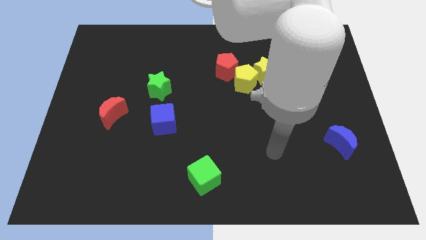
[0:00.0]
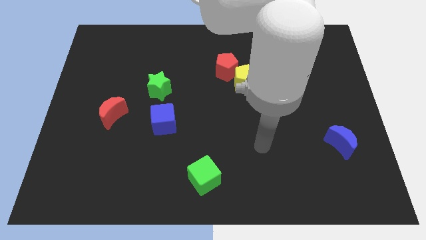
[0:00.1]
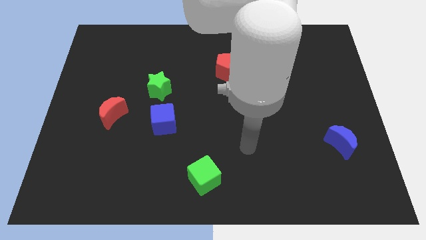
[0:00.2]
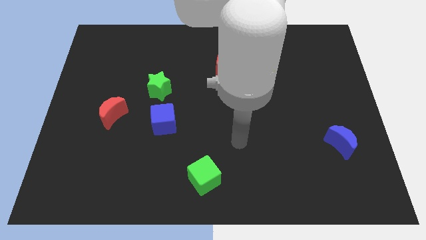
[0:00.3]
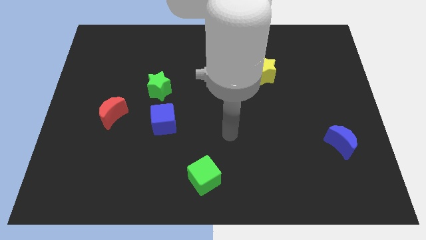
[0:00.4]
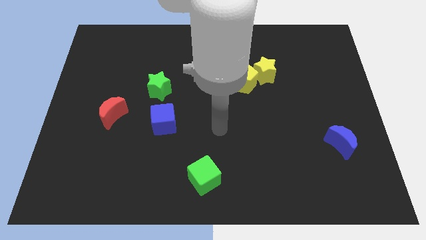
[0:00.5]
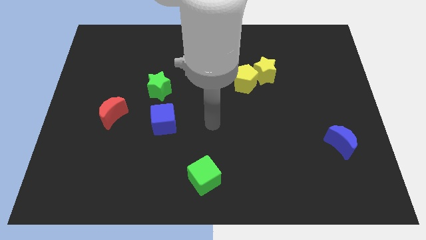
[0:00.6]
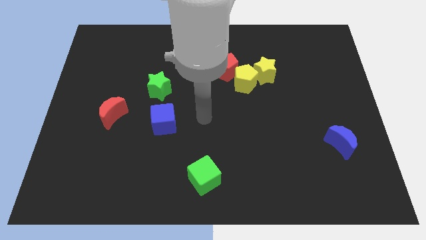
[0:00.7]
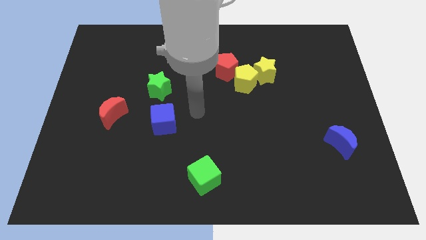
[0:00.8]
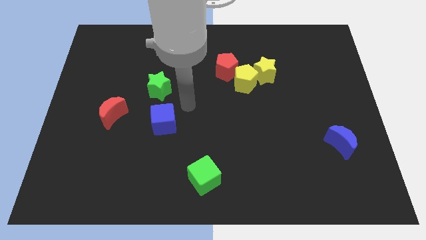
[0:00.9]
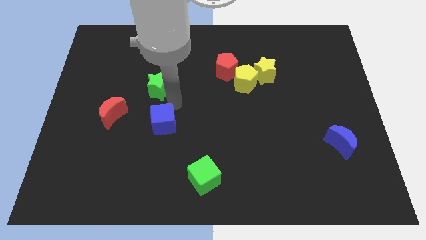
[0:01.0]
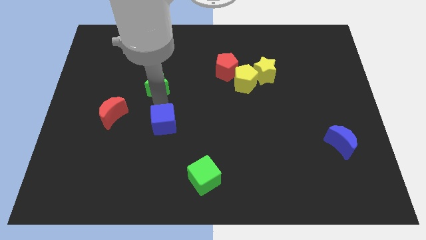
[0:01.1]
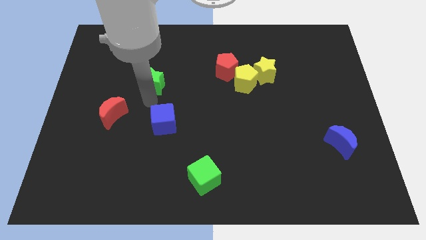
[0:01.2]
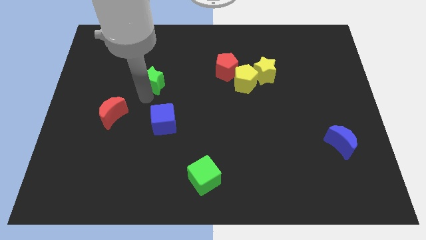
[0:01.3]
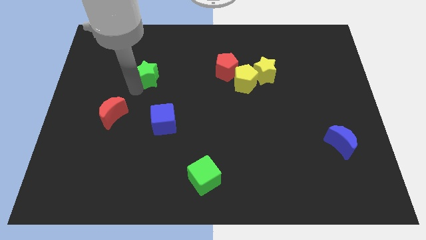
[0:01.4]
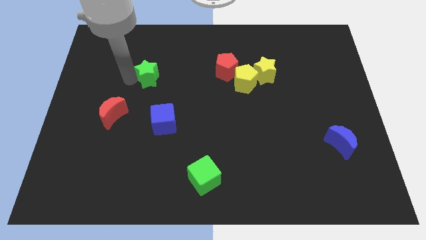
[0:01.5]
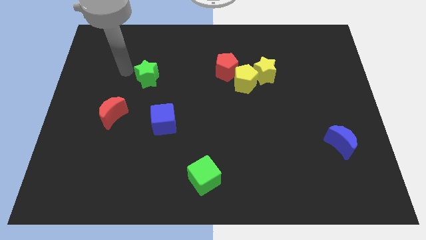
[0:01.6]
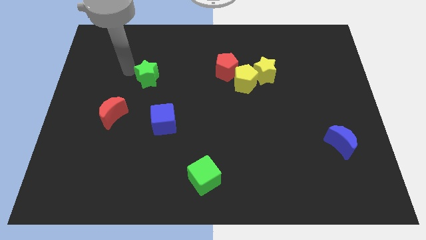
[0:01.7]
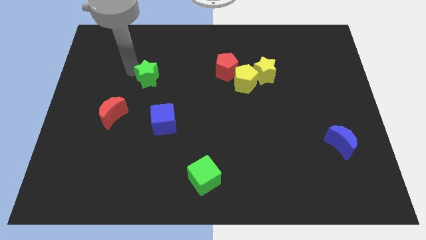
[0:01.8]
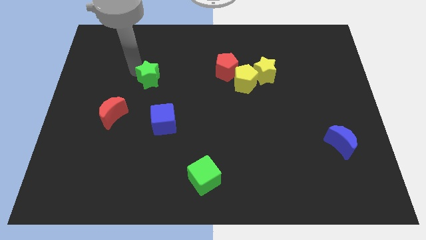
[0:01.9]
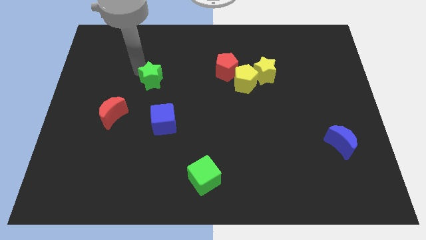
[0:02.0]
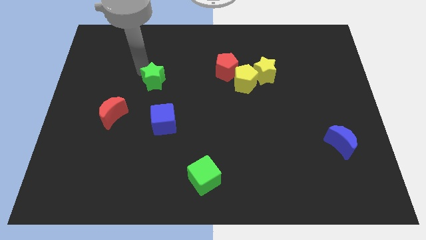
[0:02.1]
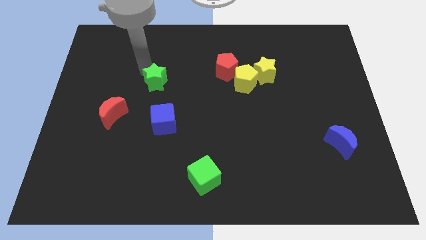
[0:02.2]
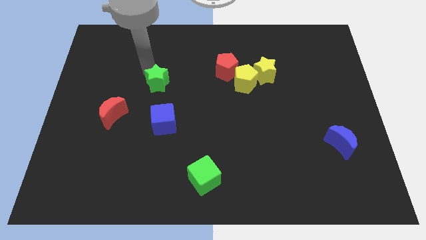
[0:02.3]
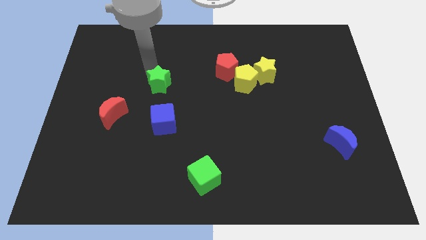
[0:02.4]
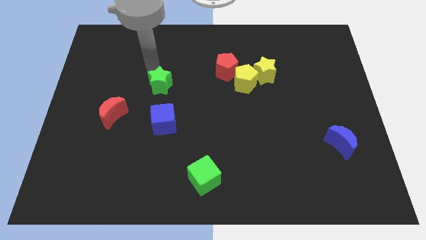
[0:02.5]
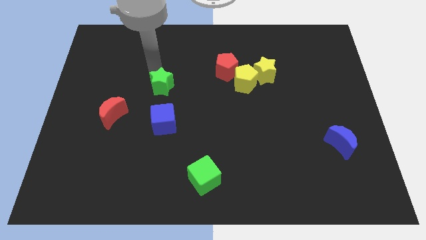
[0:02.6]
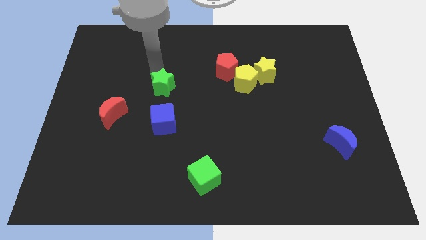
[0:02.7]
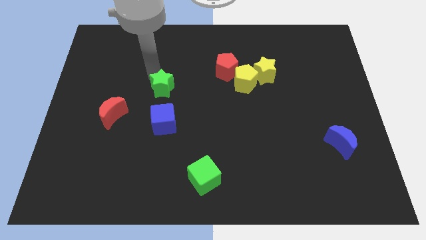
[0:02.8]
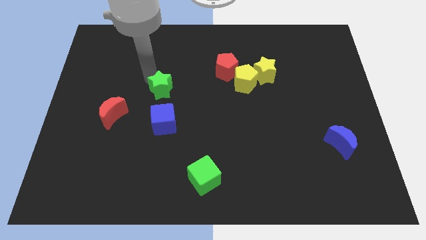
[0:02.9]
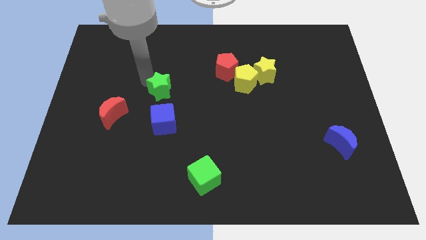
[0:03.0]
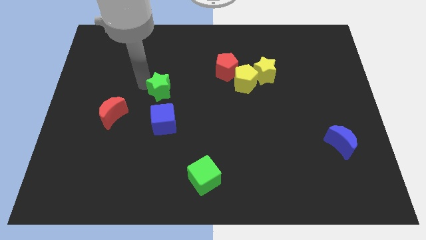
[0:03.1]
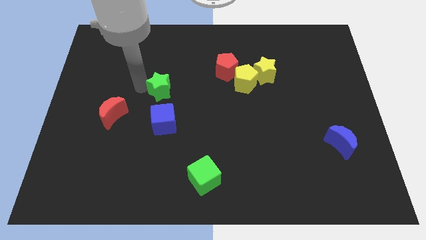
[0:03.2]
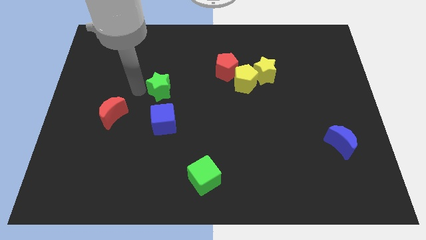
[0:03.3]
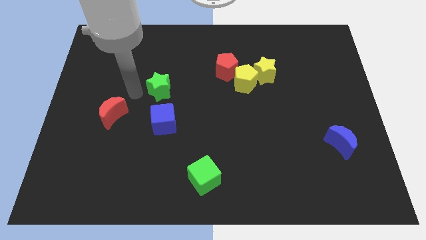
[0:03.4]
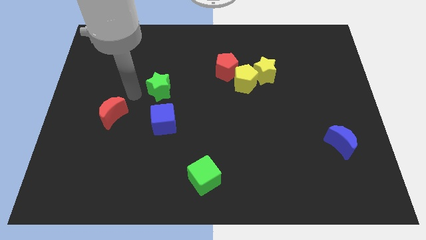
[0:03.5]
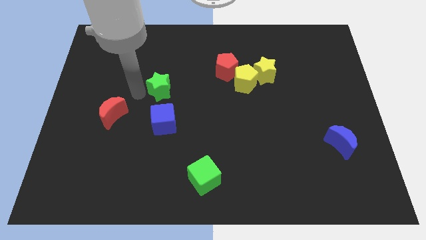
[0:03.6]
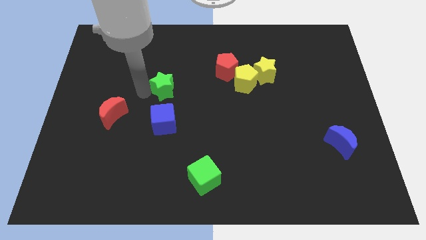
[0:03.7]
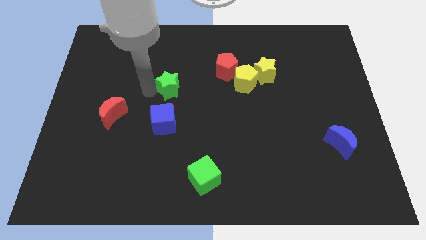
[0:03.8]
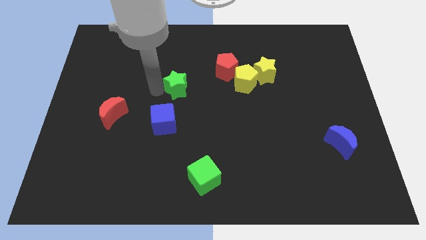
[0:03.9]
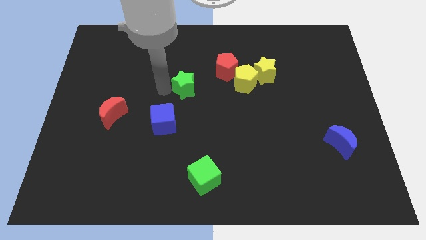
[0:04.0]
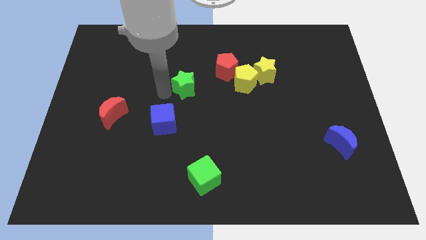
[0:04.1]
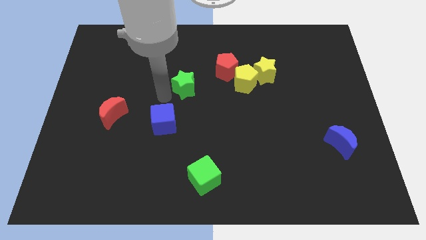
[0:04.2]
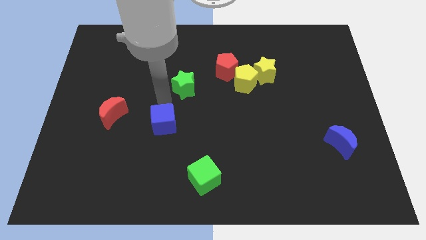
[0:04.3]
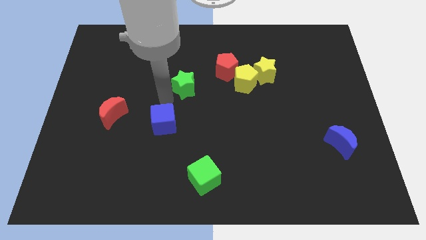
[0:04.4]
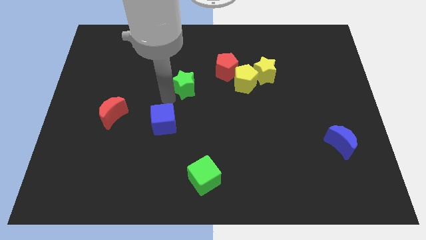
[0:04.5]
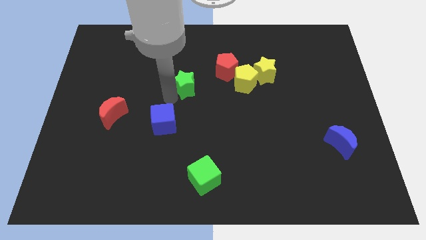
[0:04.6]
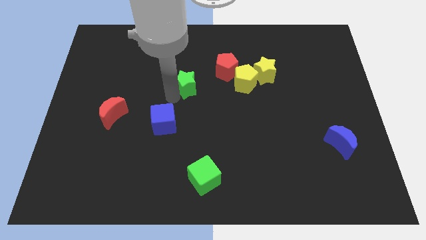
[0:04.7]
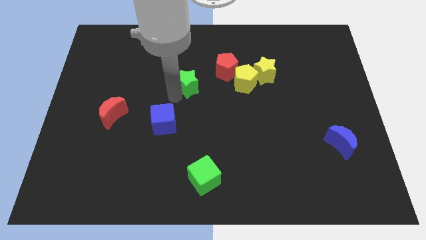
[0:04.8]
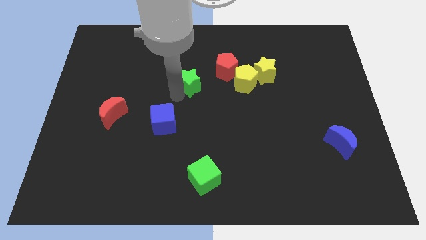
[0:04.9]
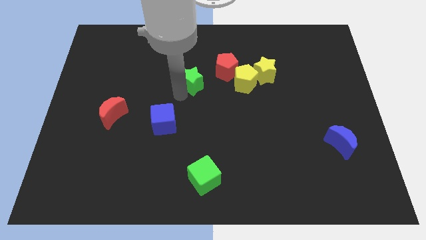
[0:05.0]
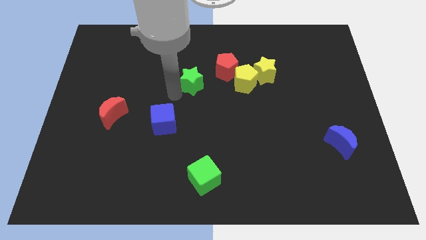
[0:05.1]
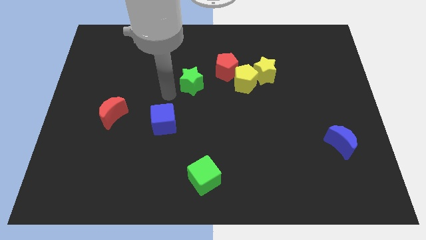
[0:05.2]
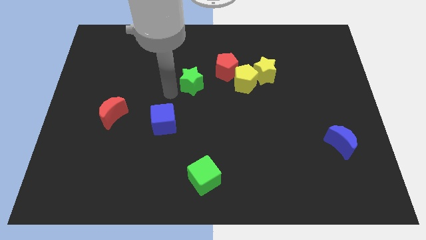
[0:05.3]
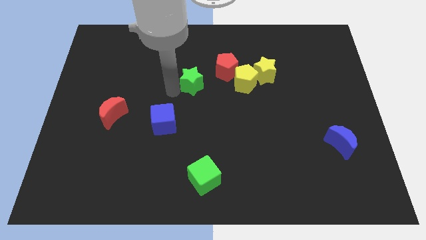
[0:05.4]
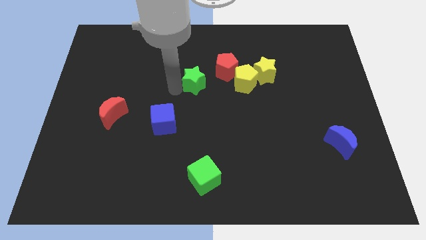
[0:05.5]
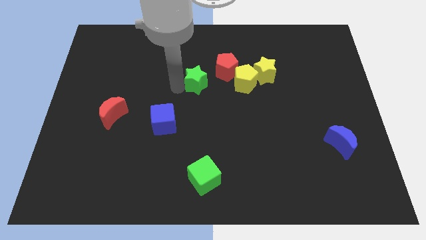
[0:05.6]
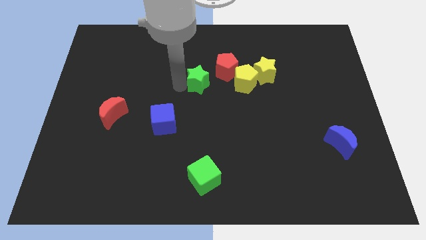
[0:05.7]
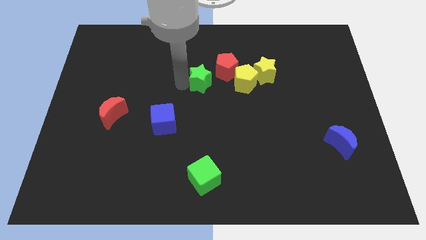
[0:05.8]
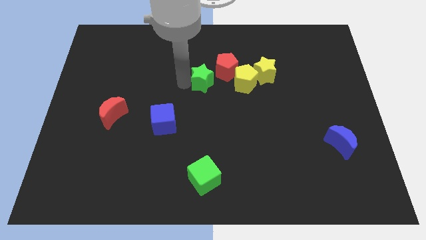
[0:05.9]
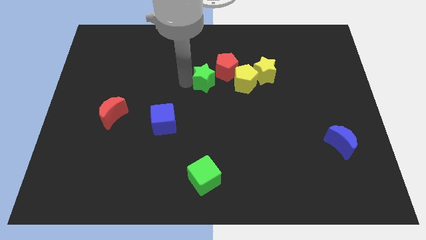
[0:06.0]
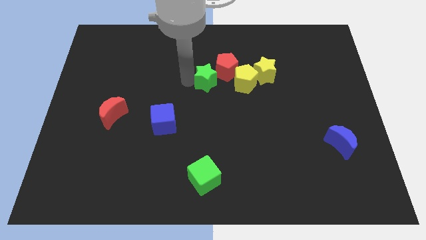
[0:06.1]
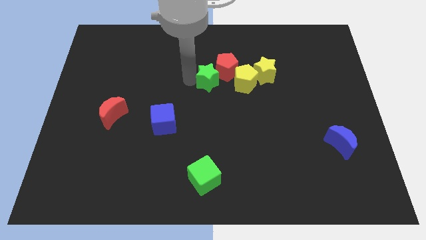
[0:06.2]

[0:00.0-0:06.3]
put the green star towards the red pentagon

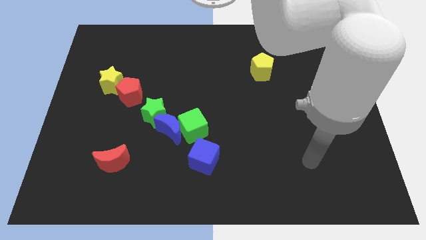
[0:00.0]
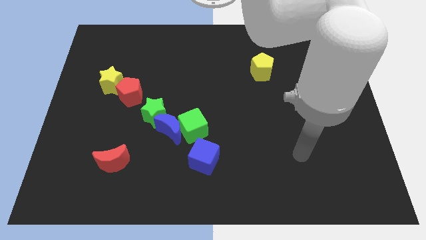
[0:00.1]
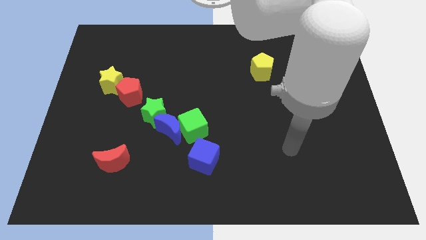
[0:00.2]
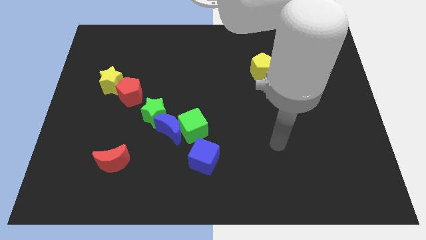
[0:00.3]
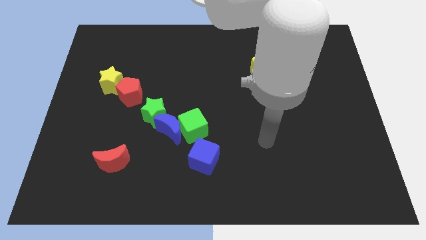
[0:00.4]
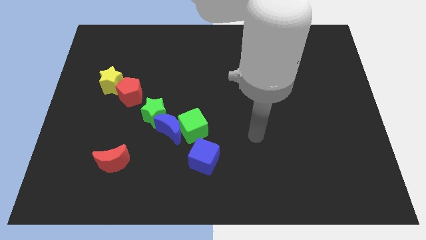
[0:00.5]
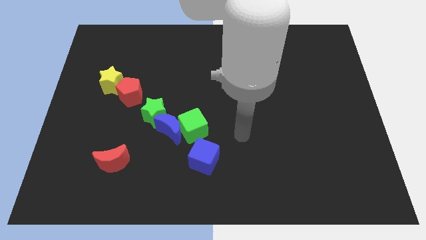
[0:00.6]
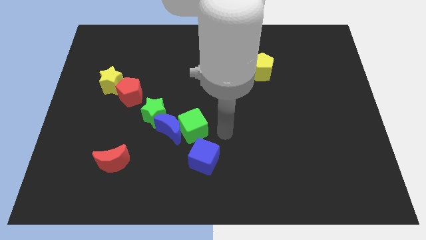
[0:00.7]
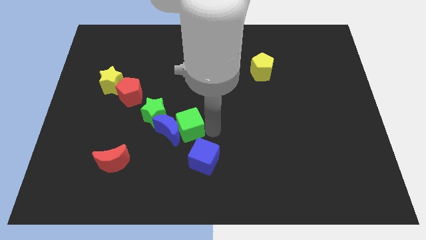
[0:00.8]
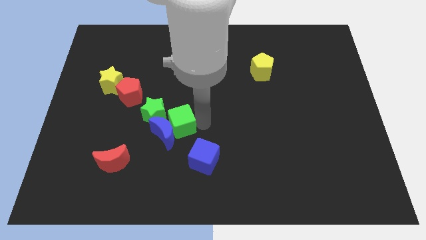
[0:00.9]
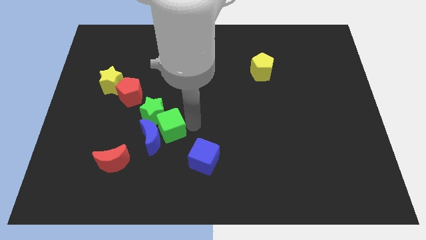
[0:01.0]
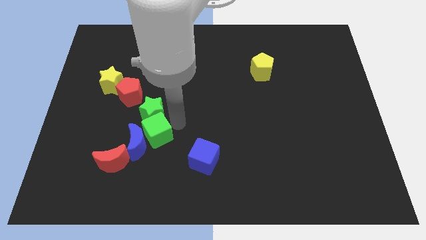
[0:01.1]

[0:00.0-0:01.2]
put the blue moon close to the red moon
